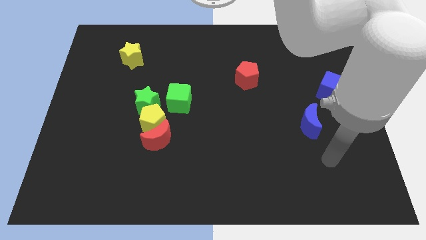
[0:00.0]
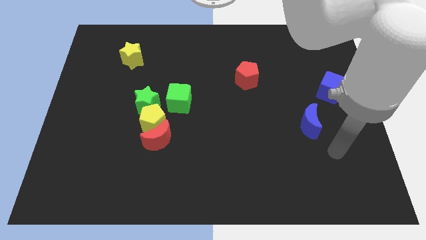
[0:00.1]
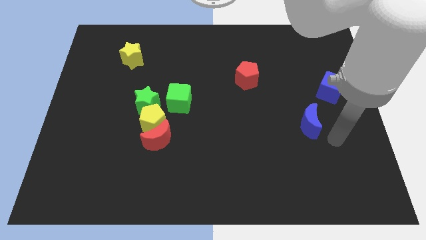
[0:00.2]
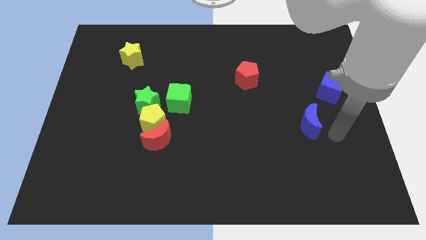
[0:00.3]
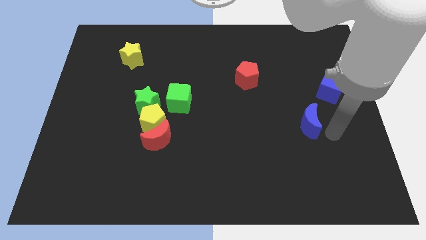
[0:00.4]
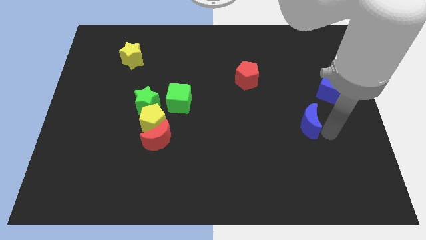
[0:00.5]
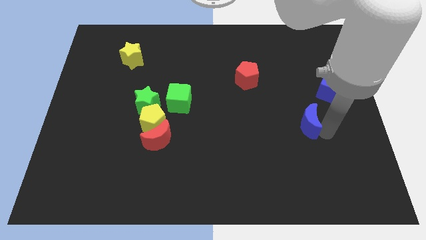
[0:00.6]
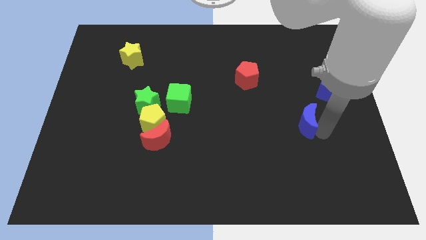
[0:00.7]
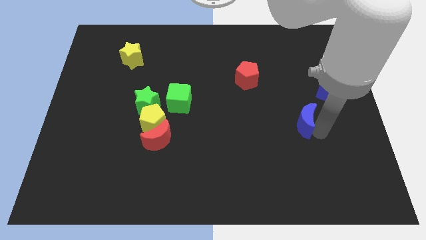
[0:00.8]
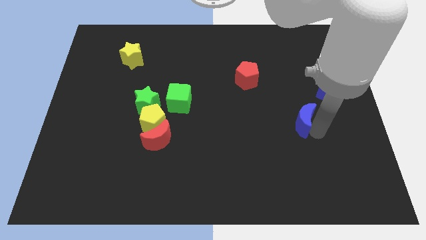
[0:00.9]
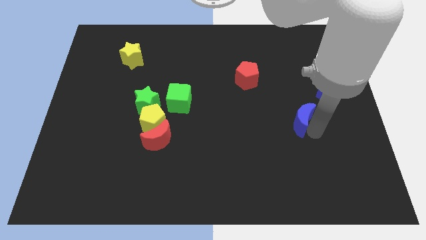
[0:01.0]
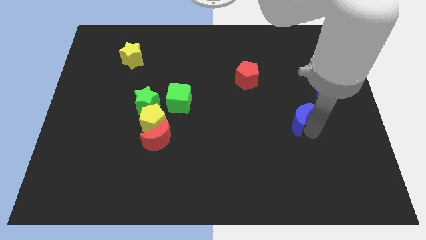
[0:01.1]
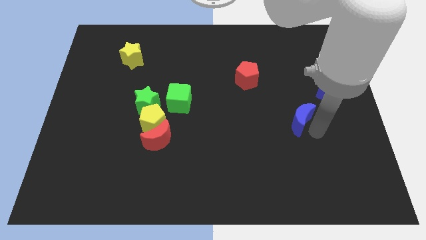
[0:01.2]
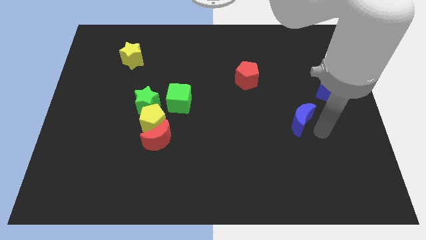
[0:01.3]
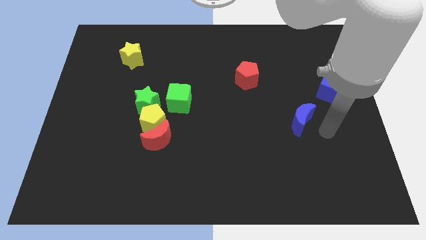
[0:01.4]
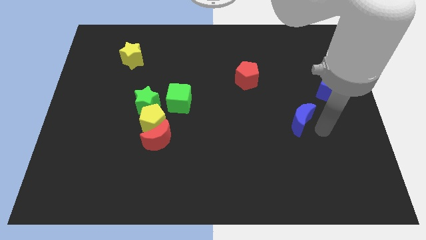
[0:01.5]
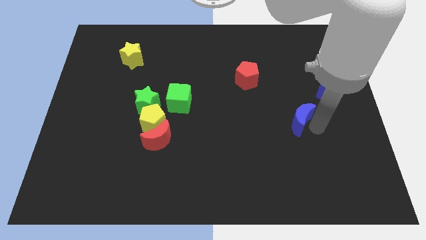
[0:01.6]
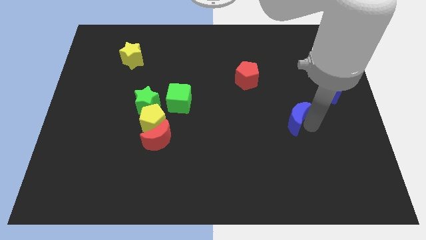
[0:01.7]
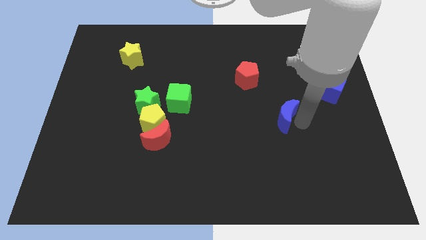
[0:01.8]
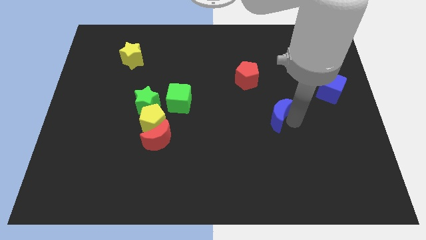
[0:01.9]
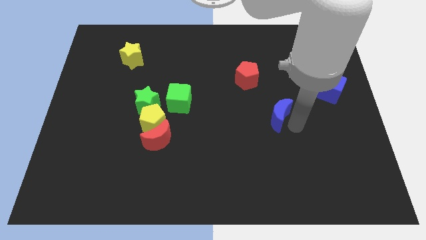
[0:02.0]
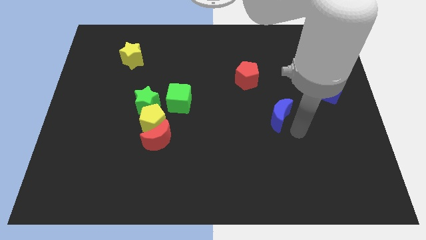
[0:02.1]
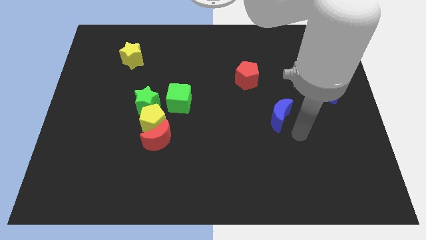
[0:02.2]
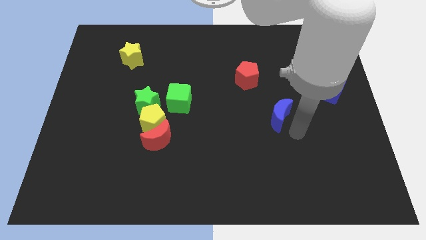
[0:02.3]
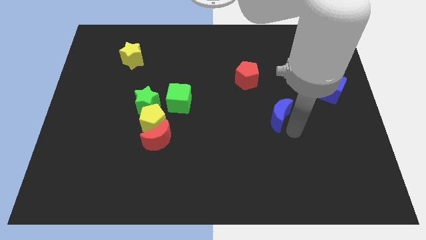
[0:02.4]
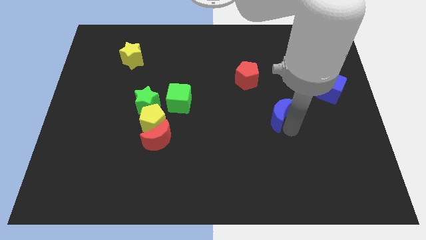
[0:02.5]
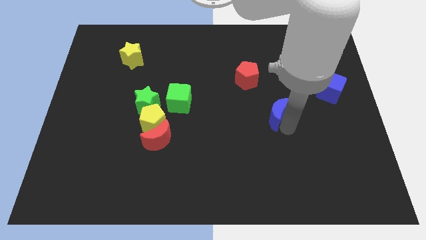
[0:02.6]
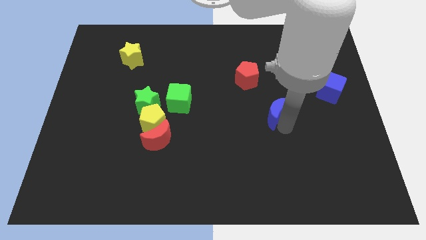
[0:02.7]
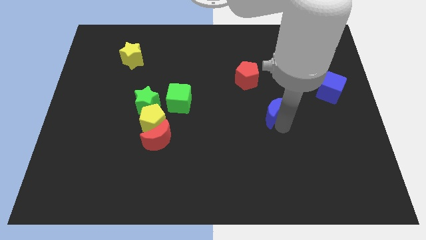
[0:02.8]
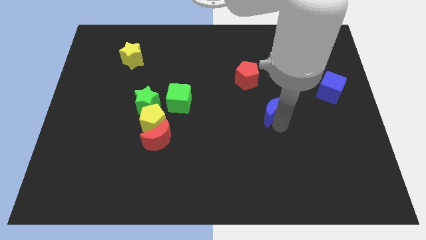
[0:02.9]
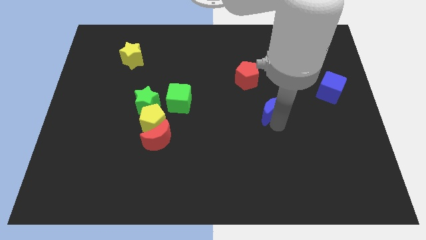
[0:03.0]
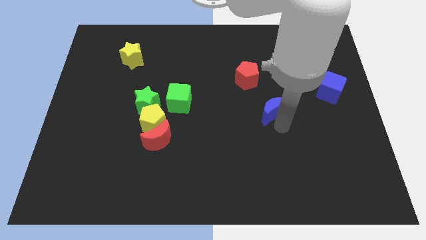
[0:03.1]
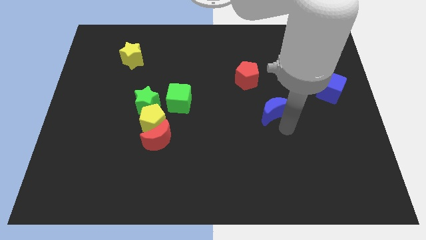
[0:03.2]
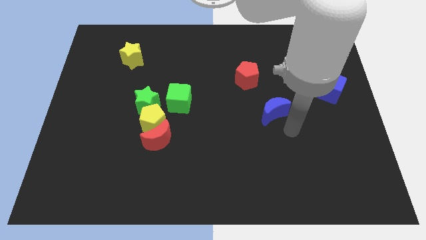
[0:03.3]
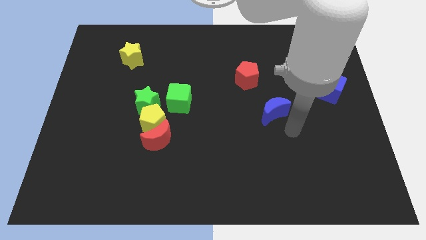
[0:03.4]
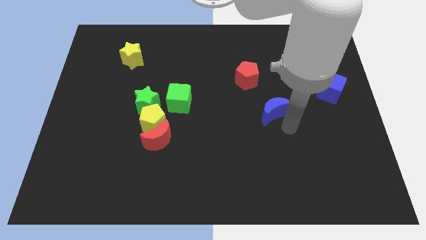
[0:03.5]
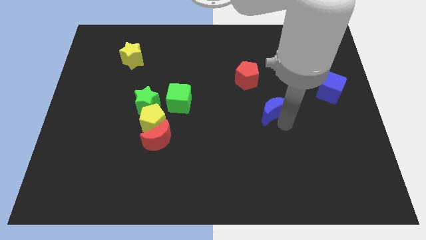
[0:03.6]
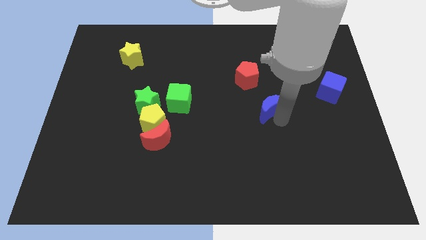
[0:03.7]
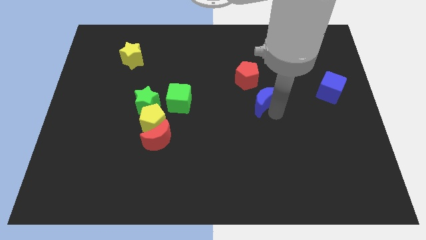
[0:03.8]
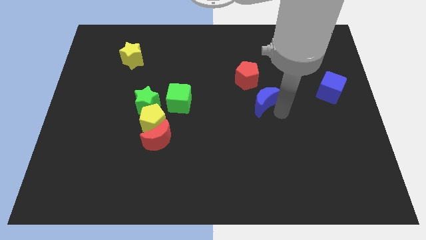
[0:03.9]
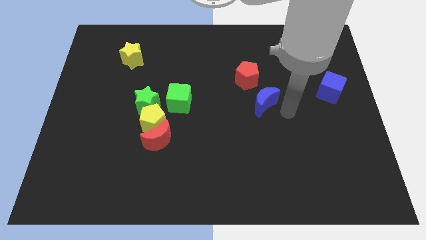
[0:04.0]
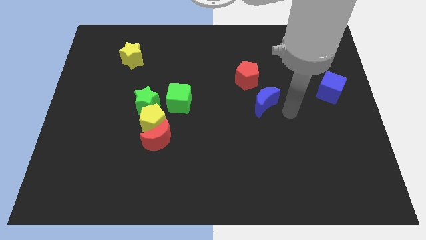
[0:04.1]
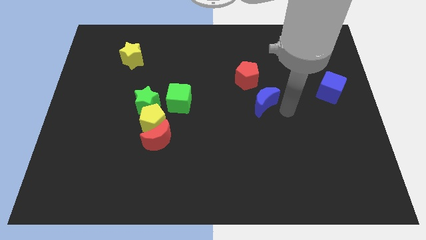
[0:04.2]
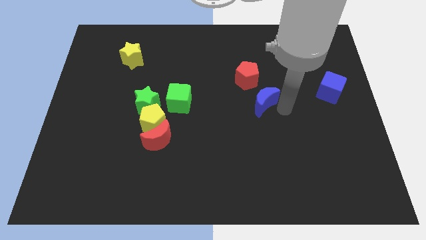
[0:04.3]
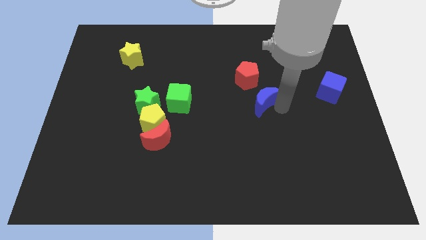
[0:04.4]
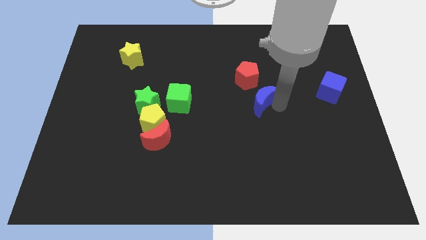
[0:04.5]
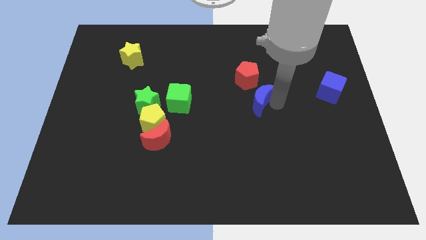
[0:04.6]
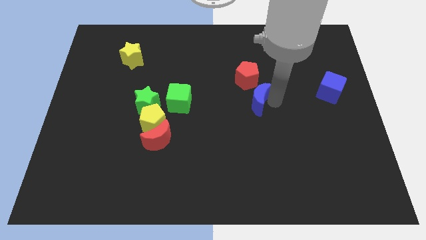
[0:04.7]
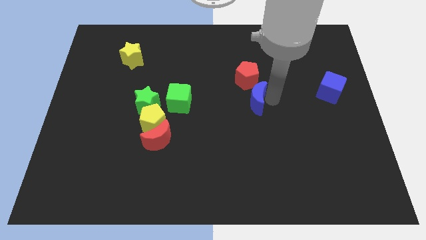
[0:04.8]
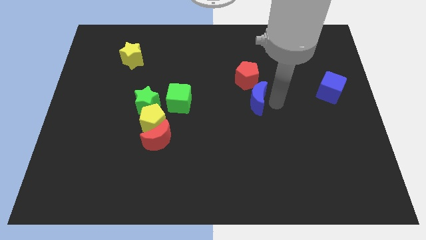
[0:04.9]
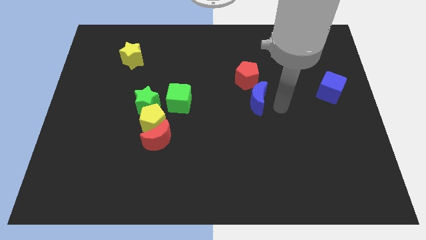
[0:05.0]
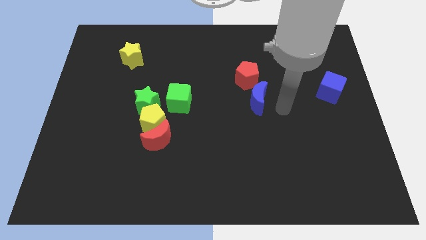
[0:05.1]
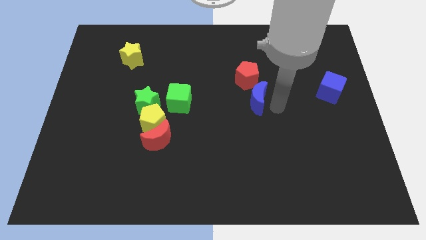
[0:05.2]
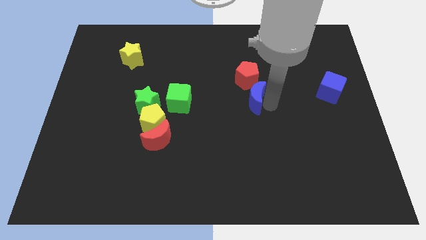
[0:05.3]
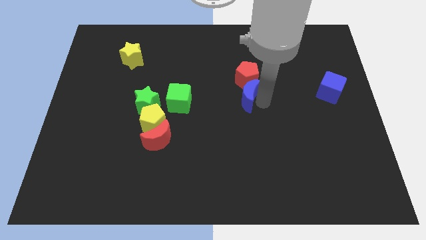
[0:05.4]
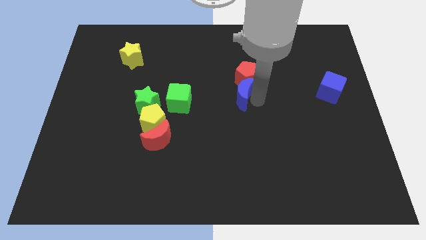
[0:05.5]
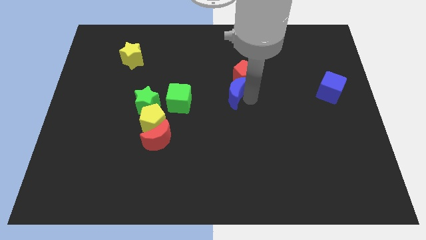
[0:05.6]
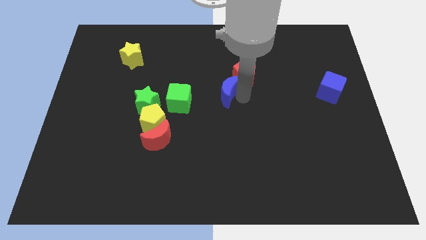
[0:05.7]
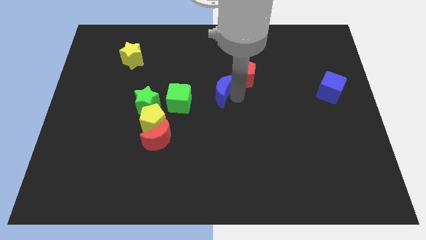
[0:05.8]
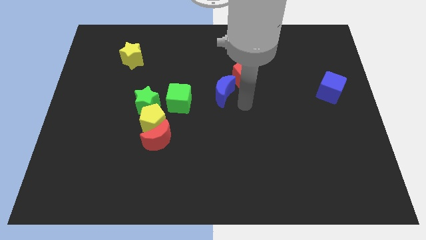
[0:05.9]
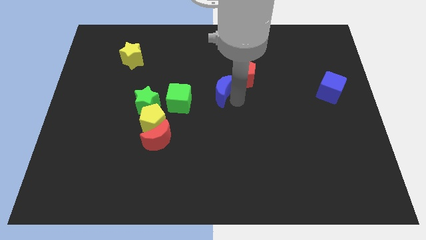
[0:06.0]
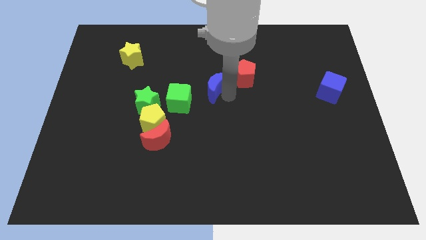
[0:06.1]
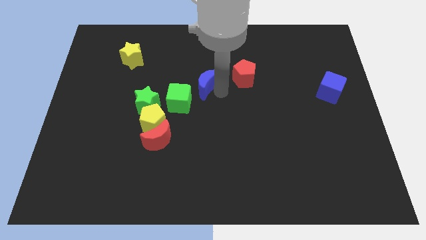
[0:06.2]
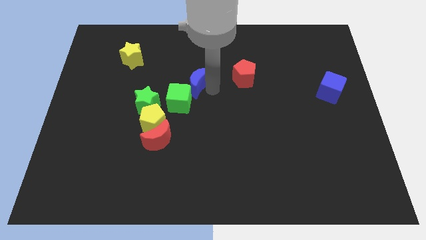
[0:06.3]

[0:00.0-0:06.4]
move the blue moon above the green cube
